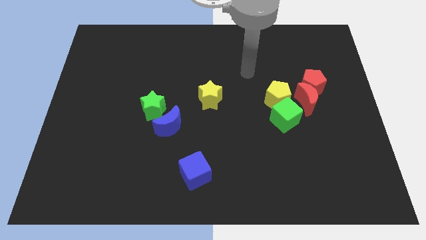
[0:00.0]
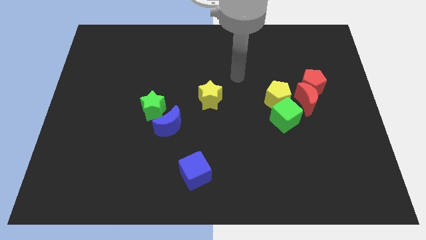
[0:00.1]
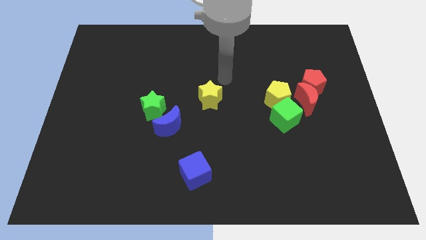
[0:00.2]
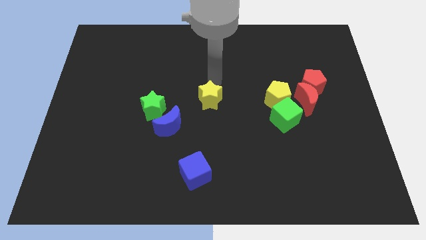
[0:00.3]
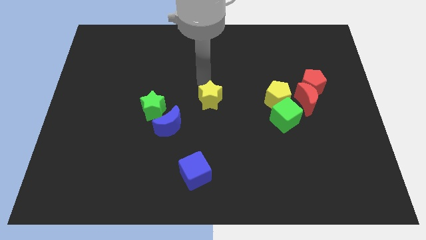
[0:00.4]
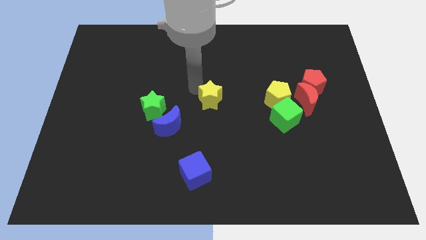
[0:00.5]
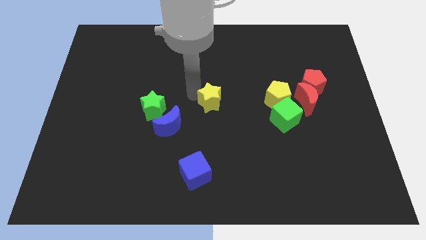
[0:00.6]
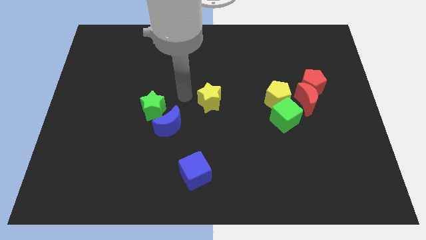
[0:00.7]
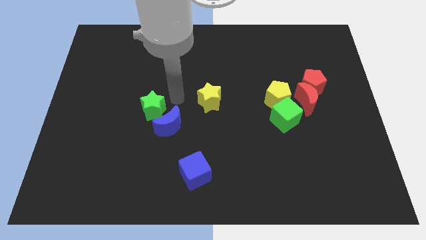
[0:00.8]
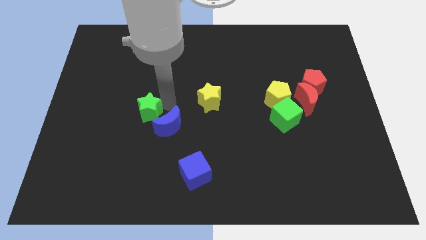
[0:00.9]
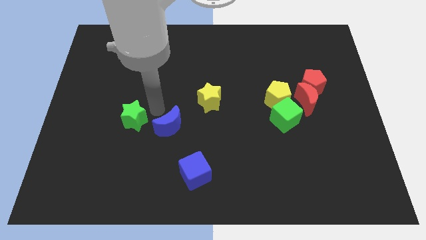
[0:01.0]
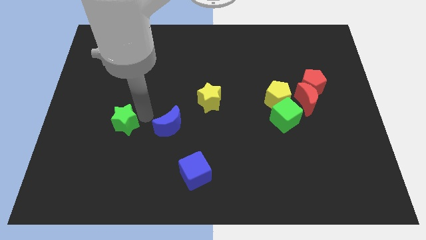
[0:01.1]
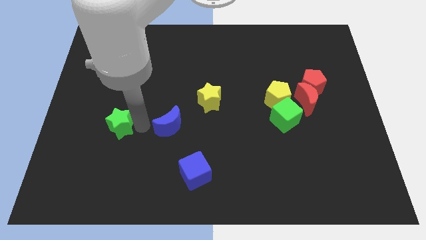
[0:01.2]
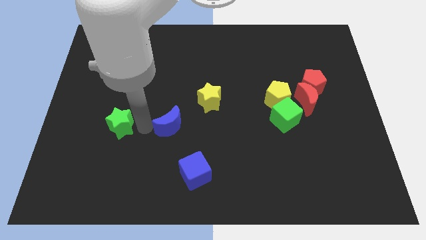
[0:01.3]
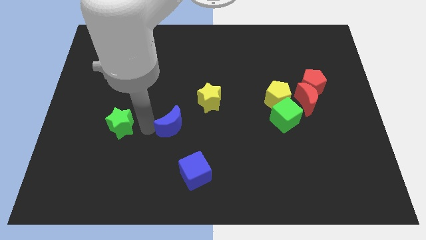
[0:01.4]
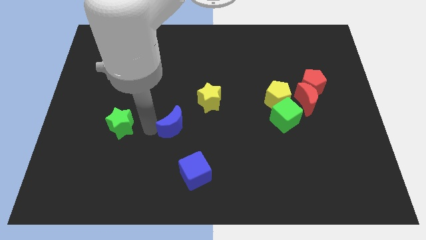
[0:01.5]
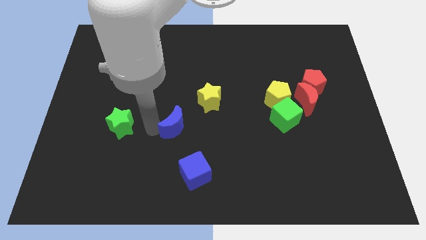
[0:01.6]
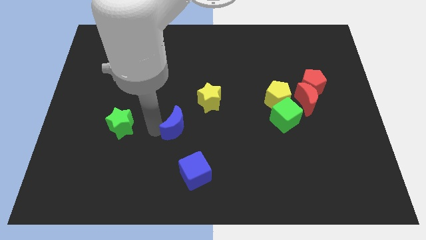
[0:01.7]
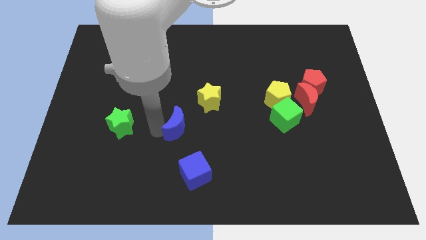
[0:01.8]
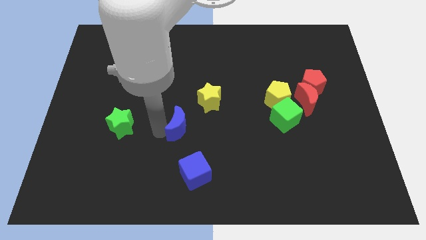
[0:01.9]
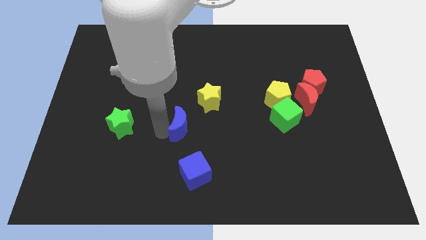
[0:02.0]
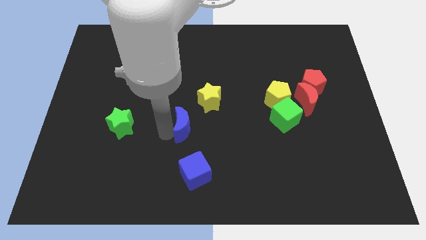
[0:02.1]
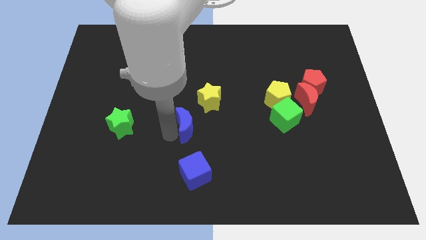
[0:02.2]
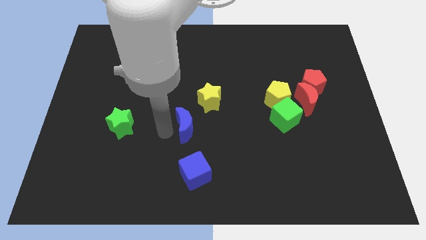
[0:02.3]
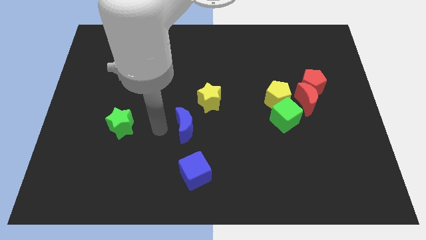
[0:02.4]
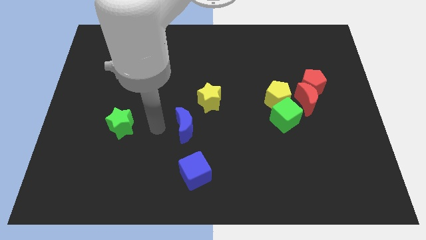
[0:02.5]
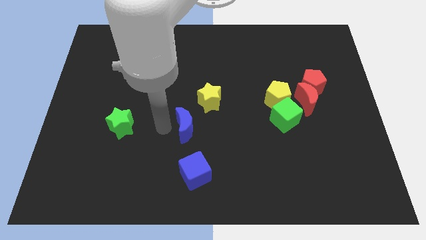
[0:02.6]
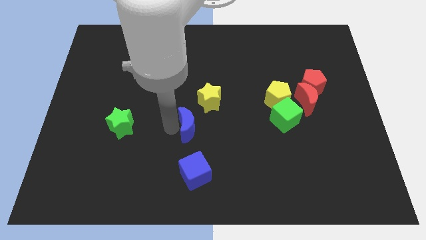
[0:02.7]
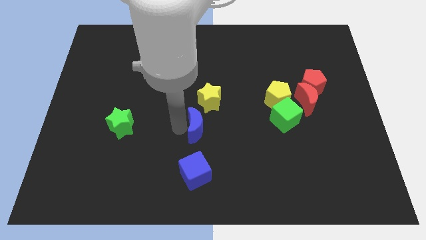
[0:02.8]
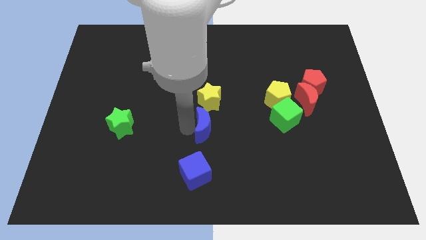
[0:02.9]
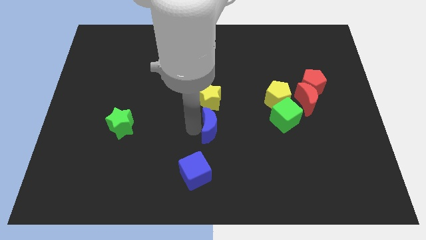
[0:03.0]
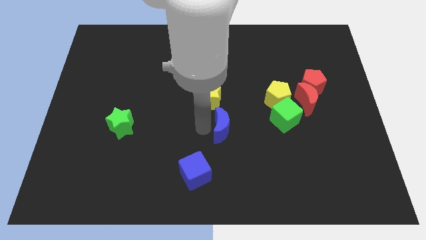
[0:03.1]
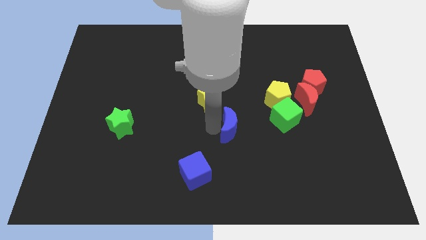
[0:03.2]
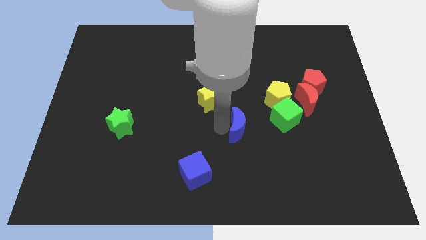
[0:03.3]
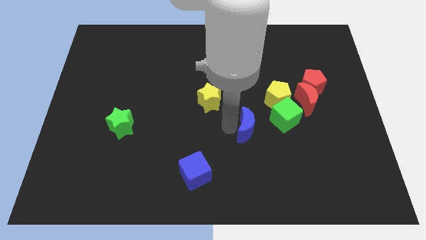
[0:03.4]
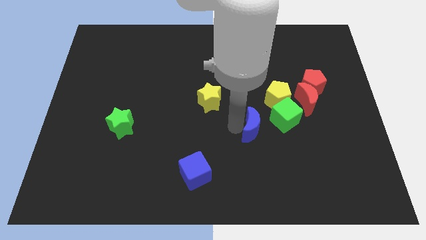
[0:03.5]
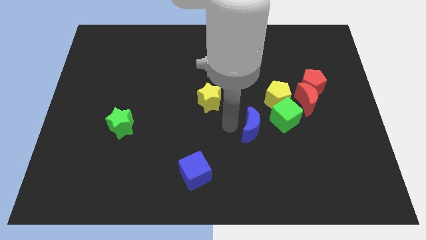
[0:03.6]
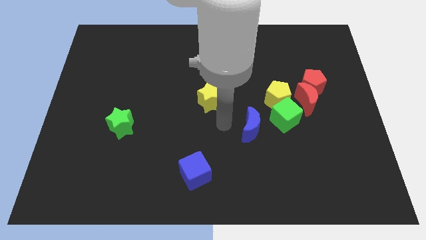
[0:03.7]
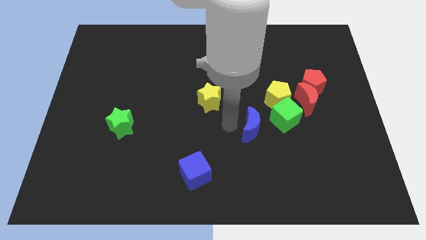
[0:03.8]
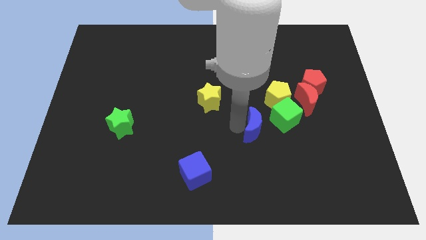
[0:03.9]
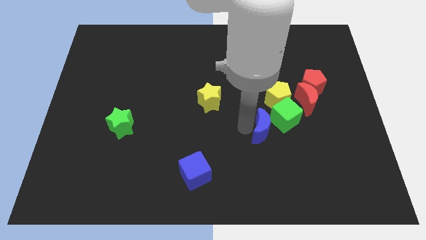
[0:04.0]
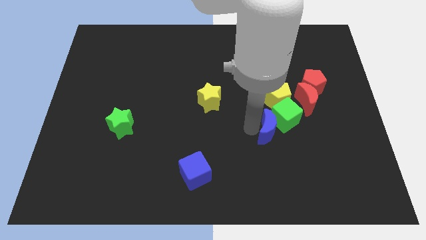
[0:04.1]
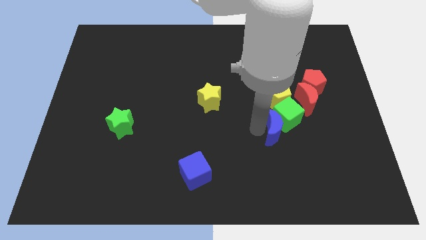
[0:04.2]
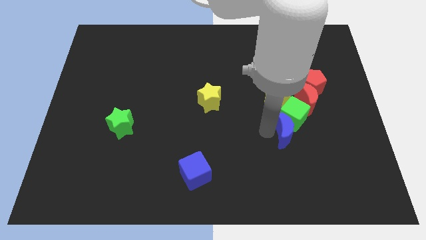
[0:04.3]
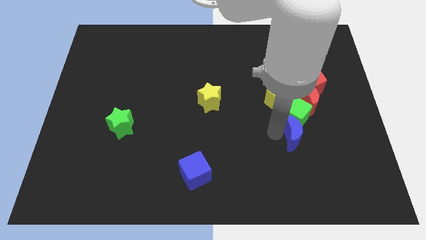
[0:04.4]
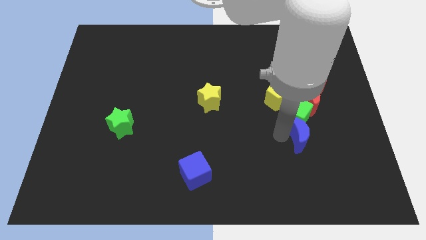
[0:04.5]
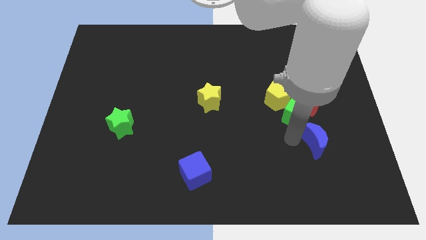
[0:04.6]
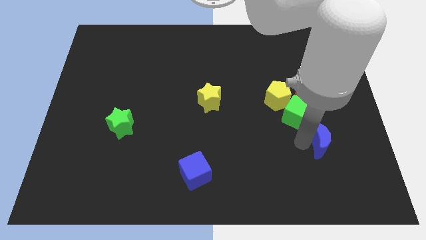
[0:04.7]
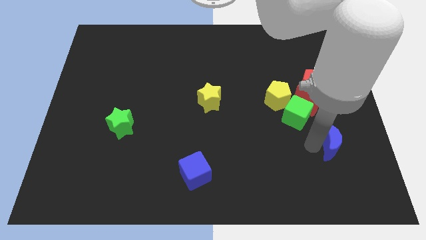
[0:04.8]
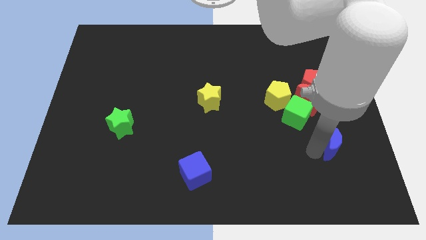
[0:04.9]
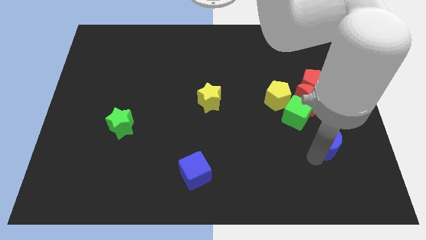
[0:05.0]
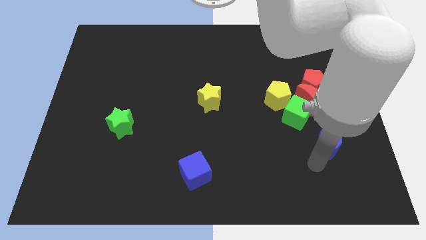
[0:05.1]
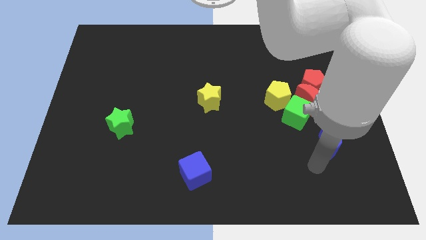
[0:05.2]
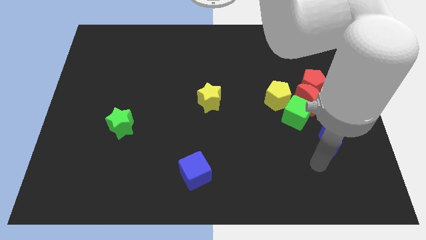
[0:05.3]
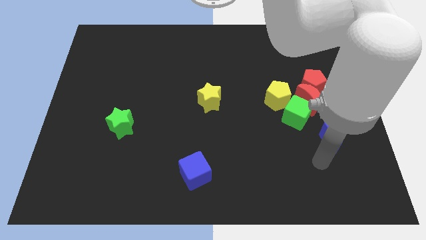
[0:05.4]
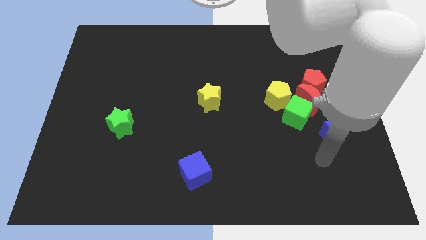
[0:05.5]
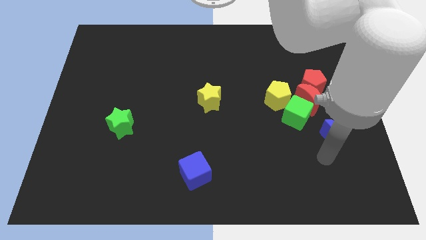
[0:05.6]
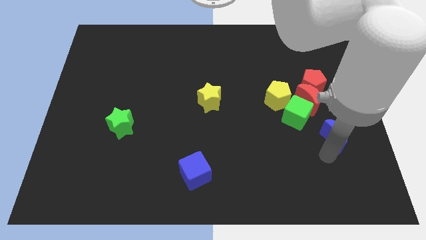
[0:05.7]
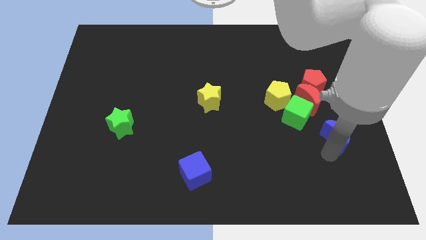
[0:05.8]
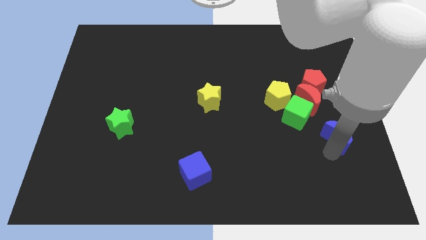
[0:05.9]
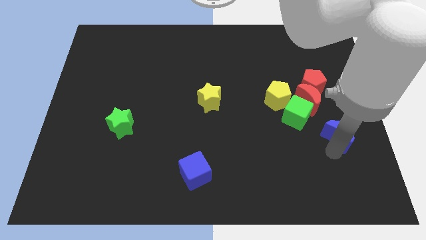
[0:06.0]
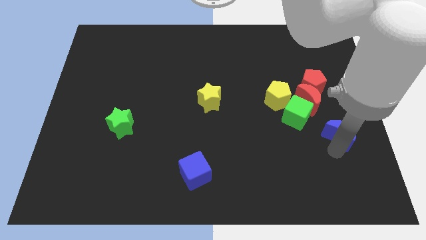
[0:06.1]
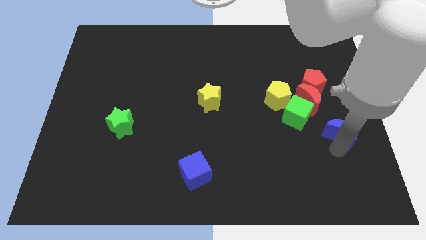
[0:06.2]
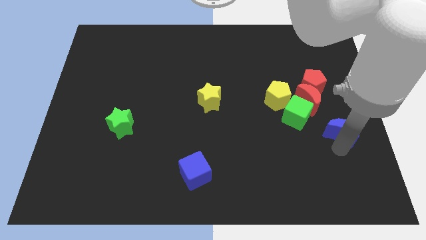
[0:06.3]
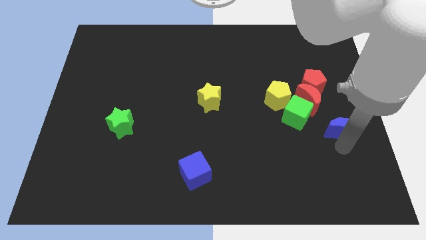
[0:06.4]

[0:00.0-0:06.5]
move the blue moon to the right side of the board
